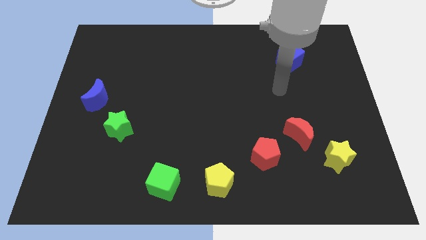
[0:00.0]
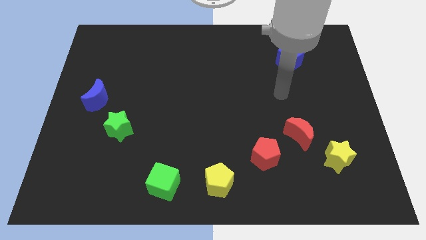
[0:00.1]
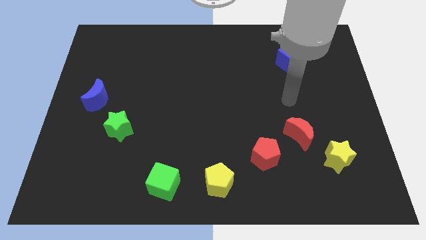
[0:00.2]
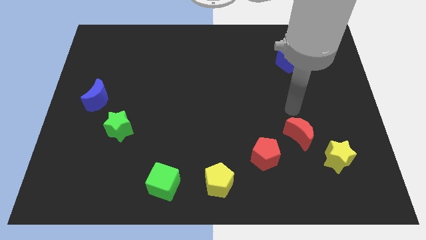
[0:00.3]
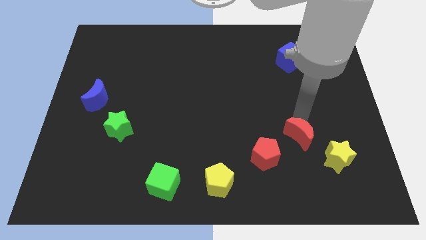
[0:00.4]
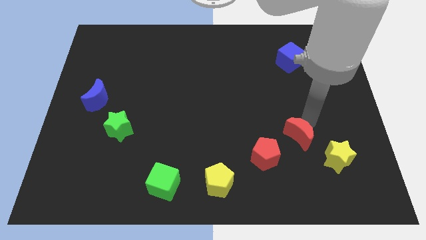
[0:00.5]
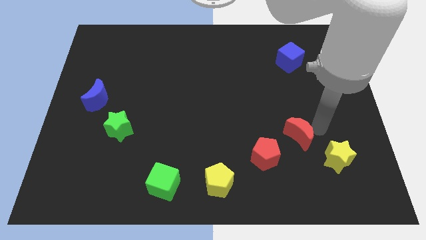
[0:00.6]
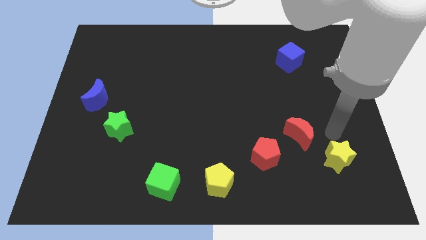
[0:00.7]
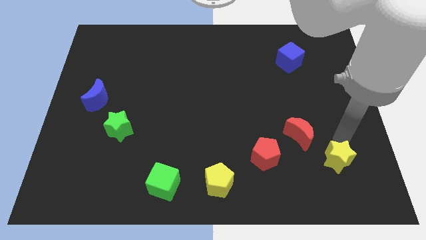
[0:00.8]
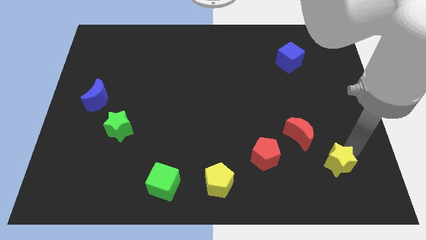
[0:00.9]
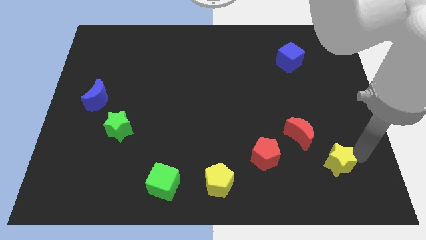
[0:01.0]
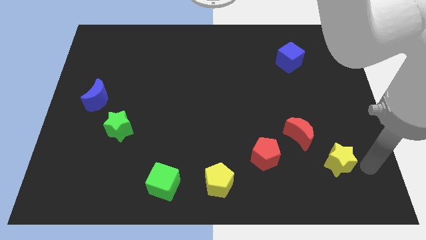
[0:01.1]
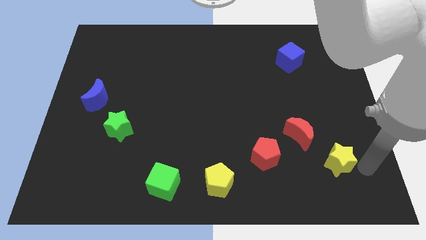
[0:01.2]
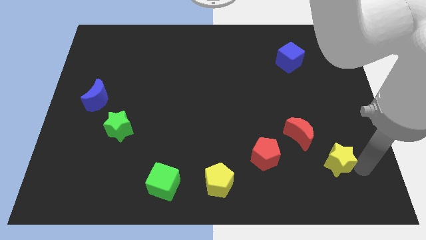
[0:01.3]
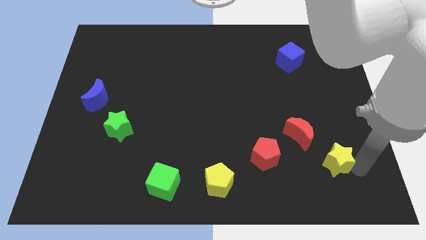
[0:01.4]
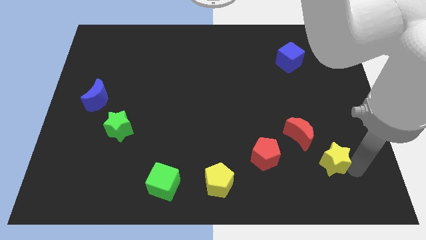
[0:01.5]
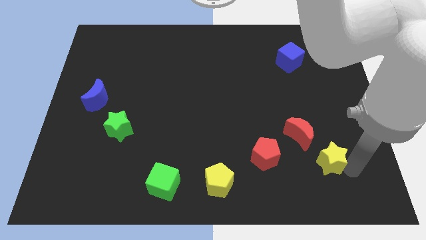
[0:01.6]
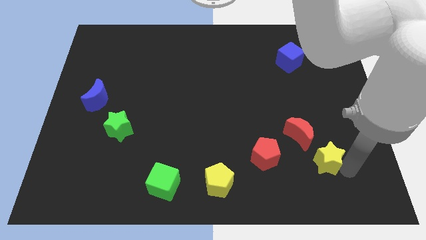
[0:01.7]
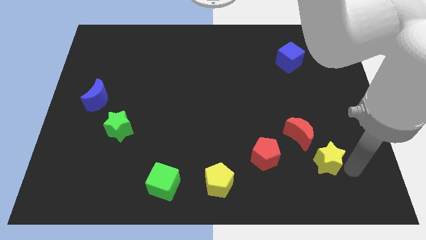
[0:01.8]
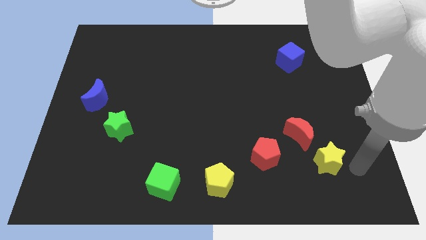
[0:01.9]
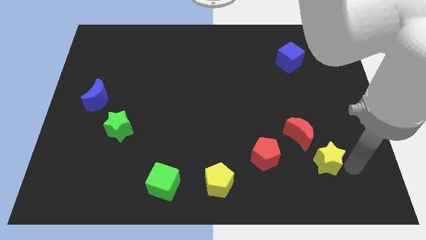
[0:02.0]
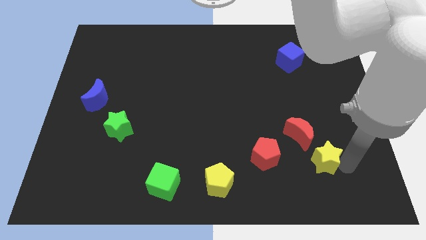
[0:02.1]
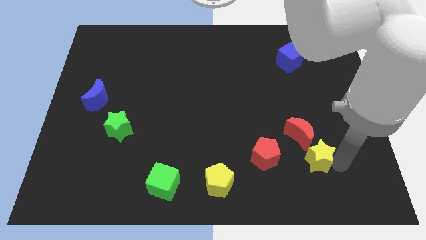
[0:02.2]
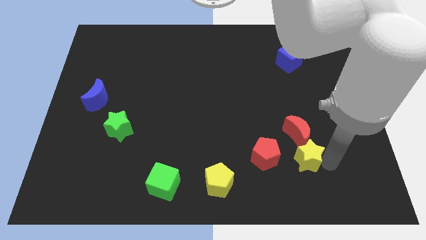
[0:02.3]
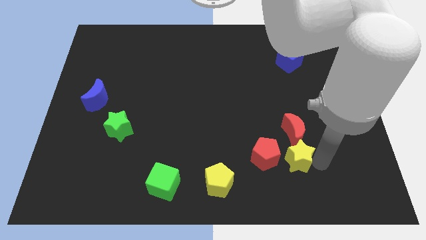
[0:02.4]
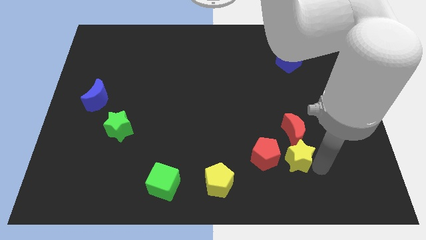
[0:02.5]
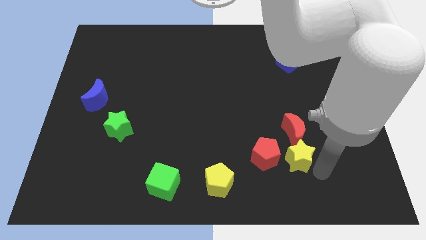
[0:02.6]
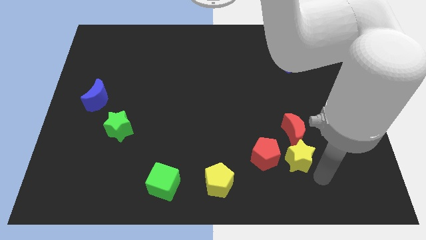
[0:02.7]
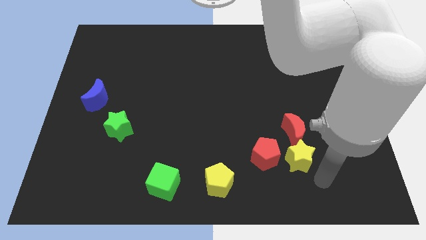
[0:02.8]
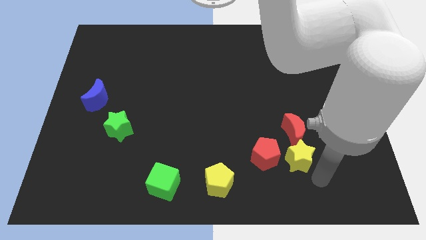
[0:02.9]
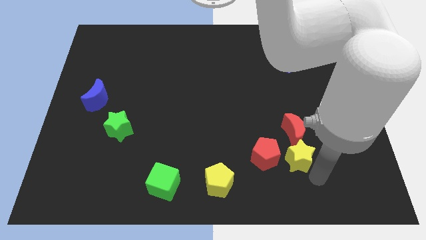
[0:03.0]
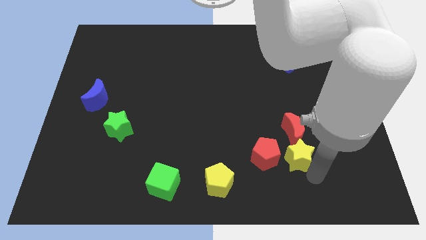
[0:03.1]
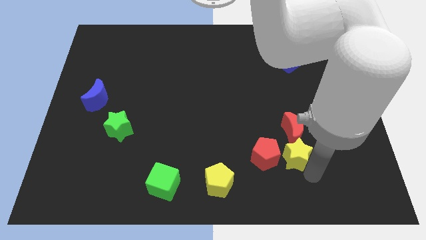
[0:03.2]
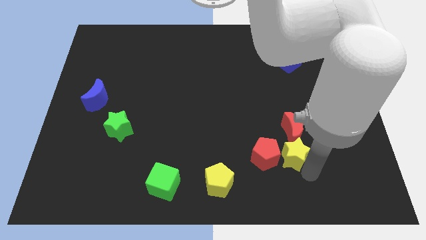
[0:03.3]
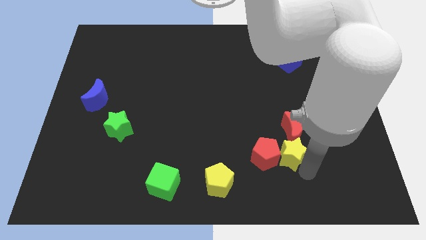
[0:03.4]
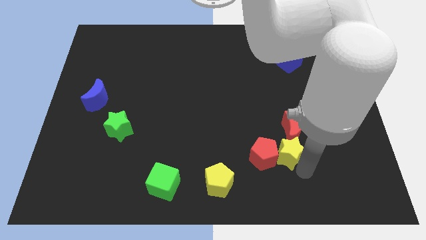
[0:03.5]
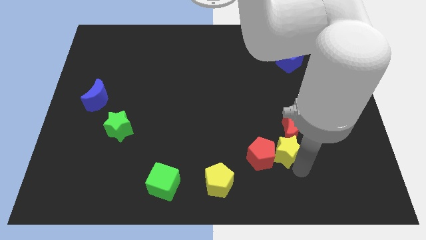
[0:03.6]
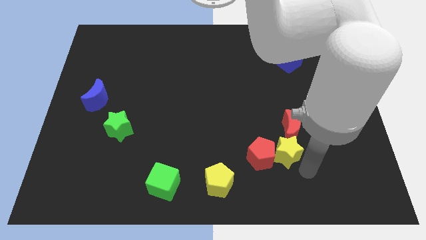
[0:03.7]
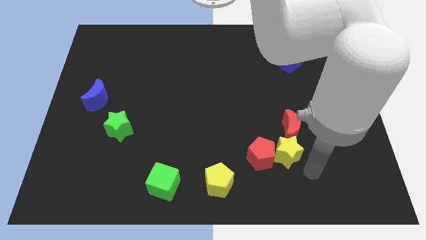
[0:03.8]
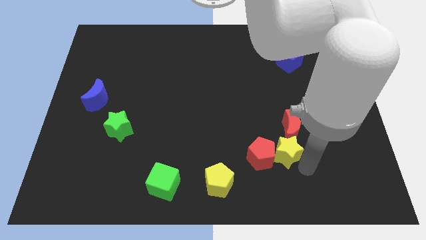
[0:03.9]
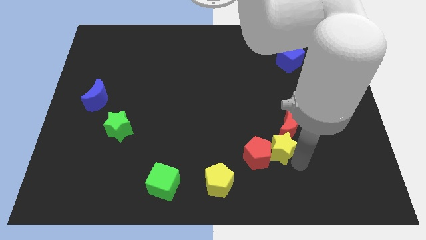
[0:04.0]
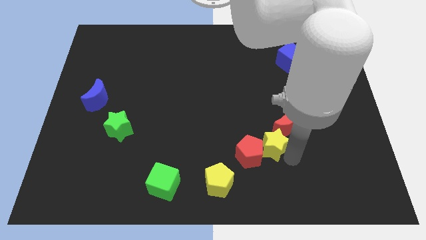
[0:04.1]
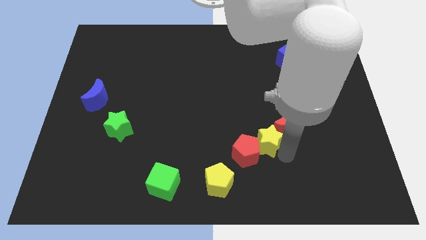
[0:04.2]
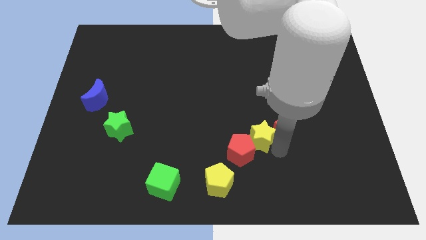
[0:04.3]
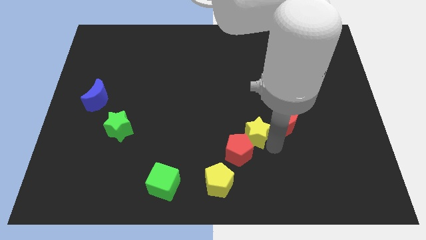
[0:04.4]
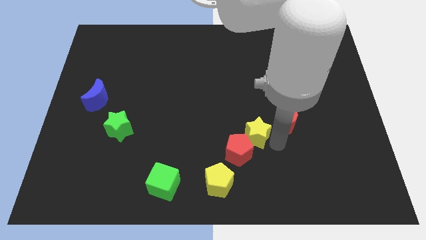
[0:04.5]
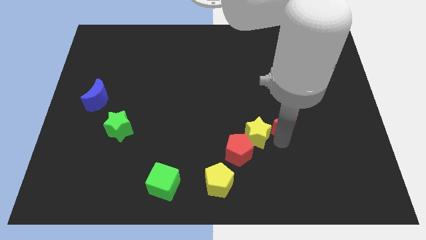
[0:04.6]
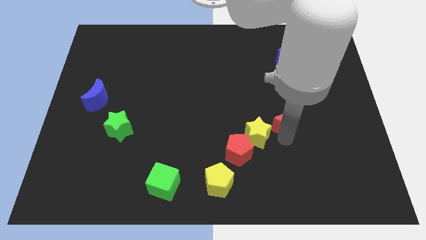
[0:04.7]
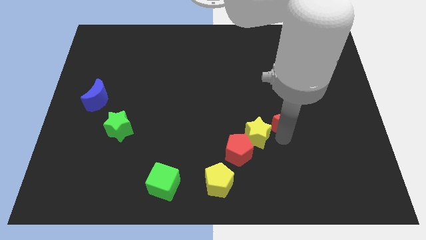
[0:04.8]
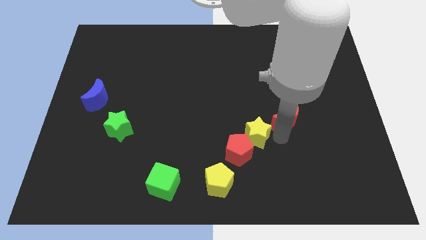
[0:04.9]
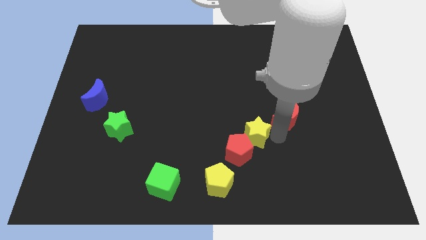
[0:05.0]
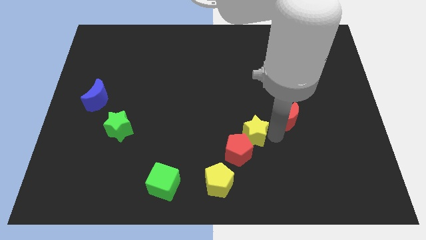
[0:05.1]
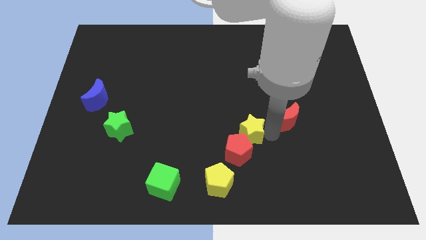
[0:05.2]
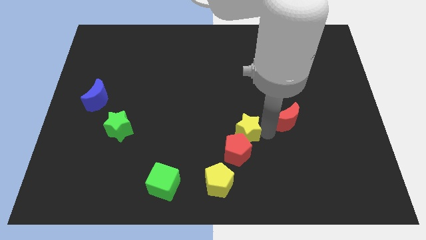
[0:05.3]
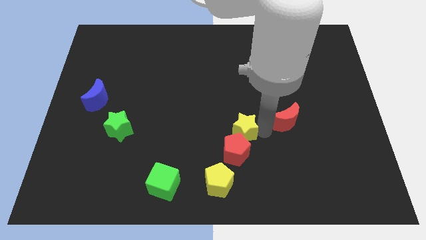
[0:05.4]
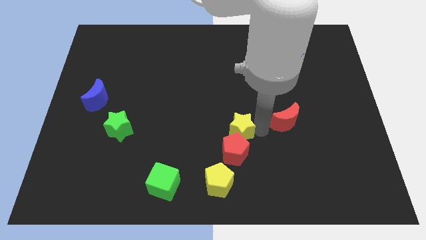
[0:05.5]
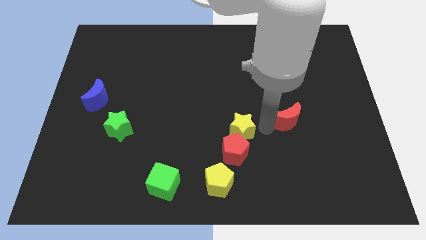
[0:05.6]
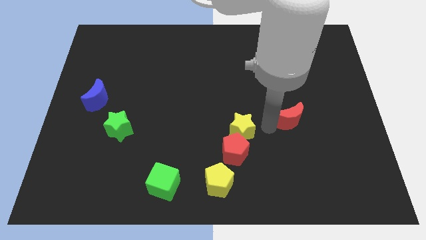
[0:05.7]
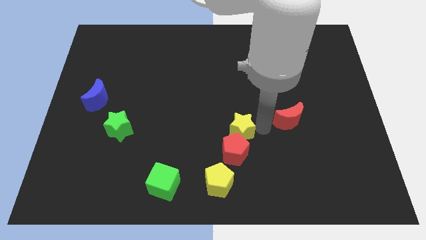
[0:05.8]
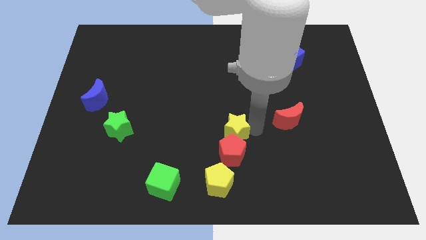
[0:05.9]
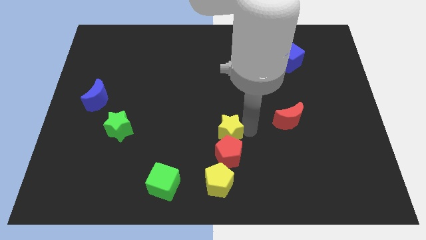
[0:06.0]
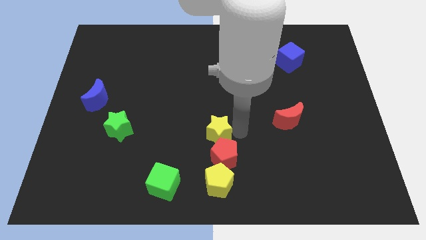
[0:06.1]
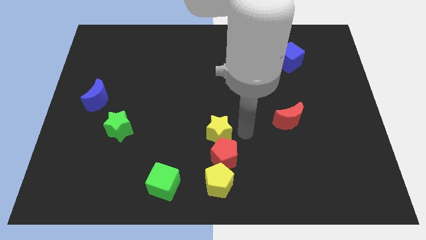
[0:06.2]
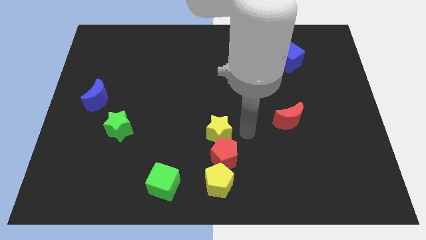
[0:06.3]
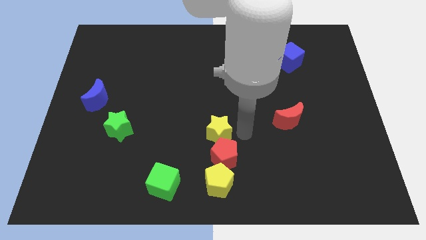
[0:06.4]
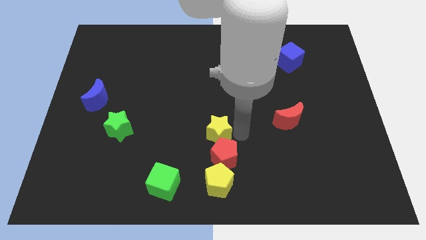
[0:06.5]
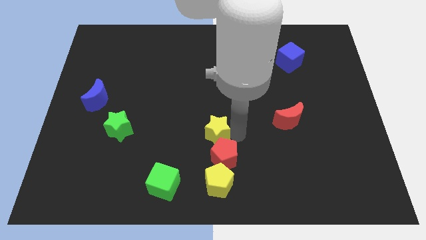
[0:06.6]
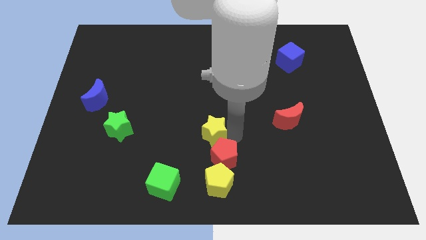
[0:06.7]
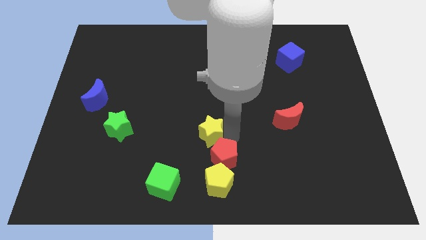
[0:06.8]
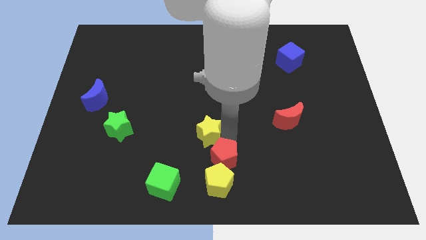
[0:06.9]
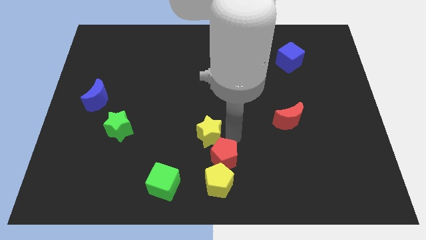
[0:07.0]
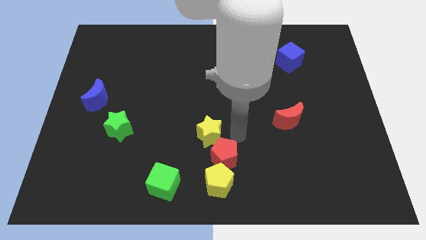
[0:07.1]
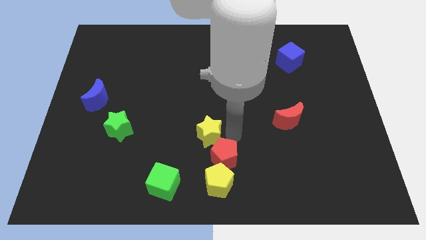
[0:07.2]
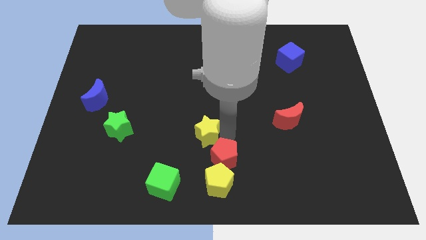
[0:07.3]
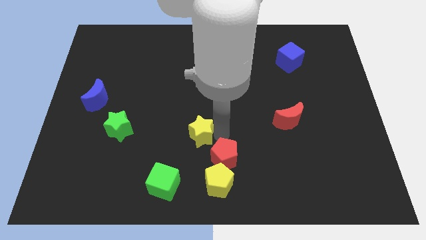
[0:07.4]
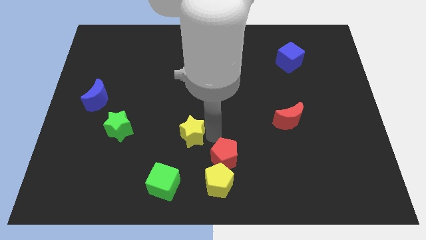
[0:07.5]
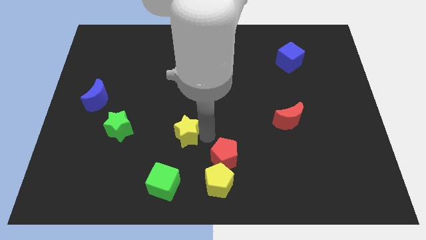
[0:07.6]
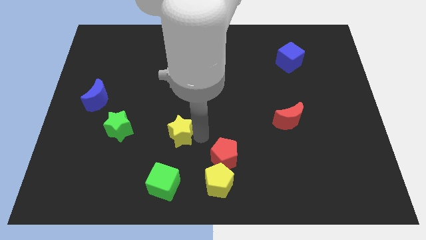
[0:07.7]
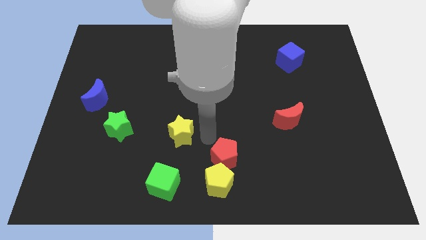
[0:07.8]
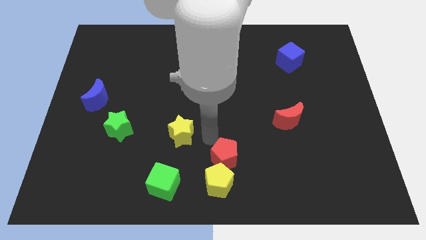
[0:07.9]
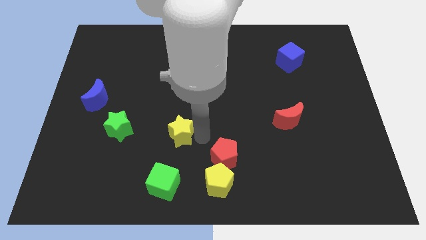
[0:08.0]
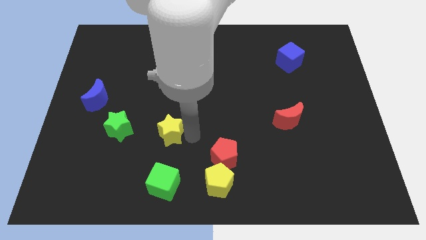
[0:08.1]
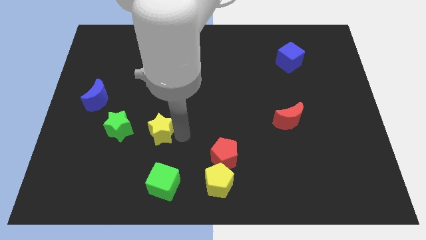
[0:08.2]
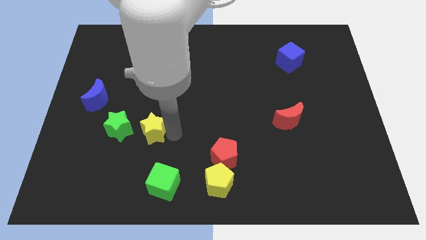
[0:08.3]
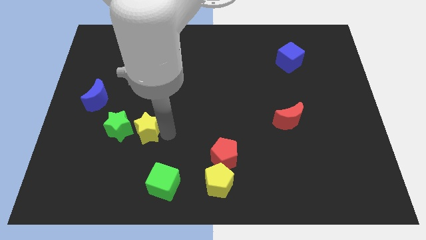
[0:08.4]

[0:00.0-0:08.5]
slide the yellow star to the green star
